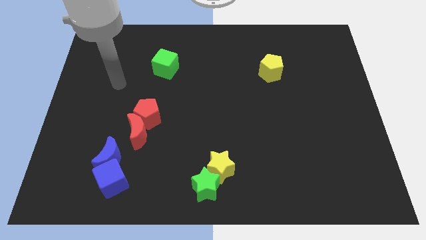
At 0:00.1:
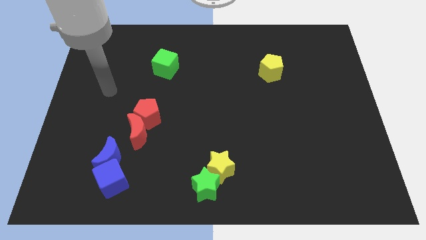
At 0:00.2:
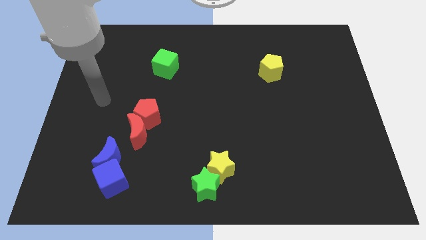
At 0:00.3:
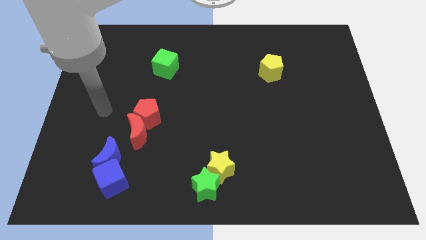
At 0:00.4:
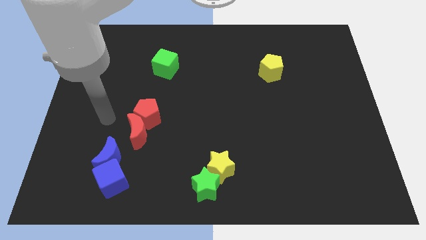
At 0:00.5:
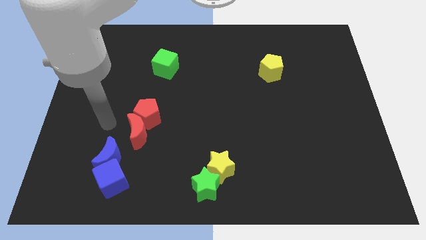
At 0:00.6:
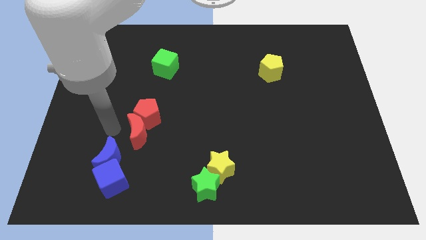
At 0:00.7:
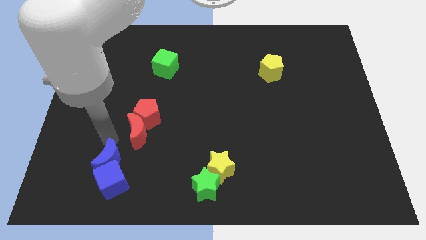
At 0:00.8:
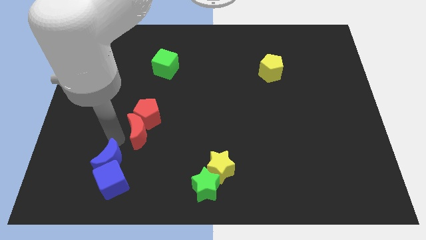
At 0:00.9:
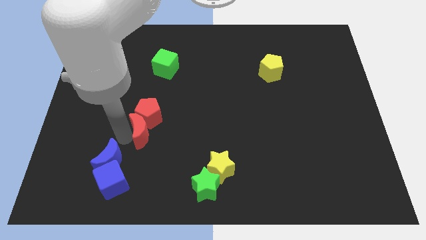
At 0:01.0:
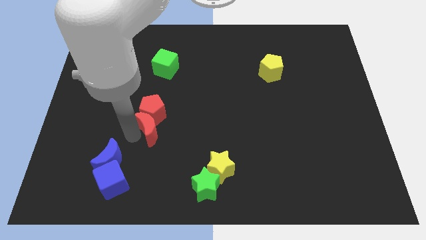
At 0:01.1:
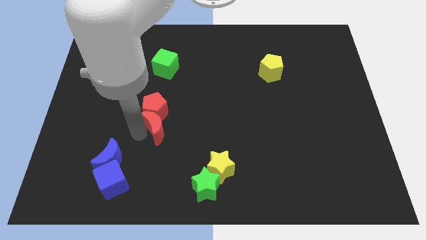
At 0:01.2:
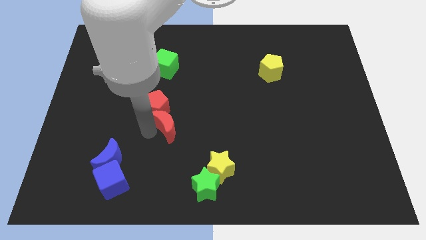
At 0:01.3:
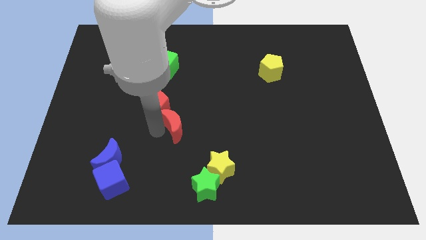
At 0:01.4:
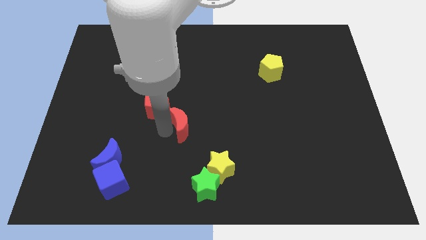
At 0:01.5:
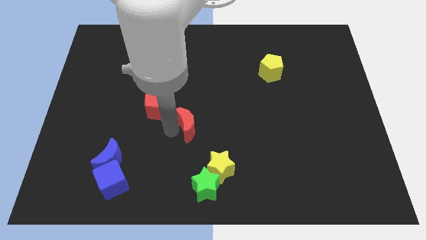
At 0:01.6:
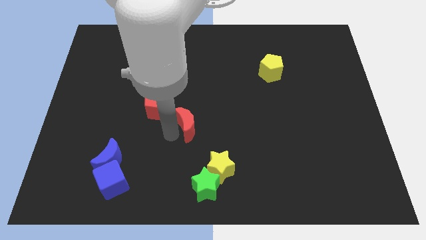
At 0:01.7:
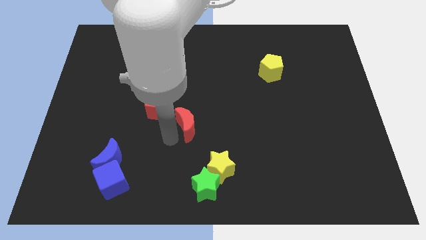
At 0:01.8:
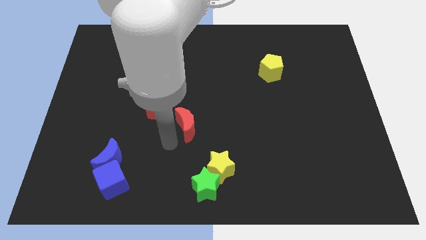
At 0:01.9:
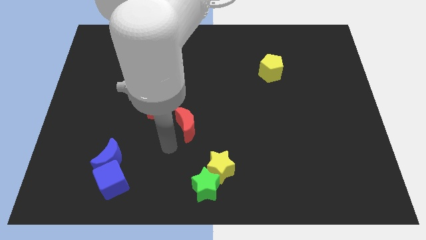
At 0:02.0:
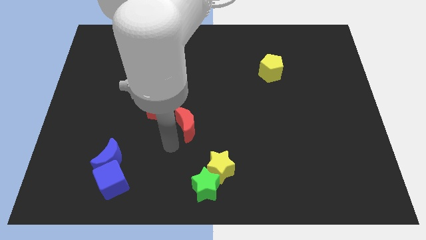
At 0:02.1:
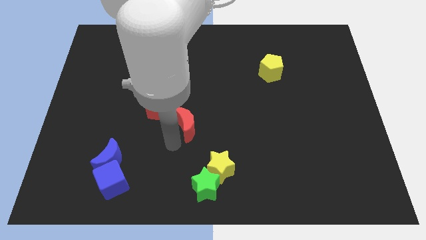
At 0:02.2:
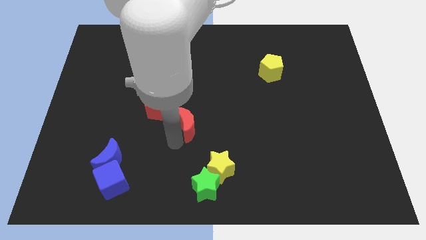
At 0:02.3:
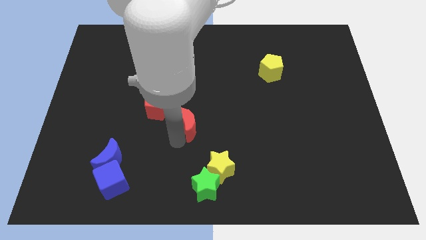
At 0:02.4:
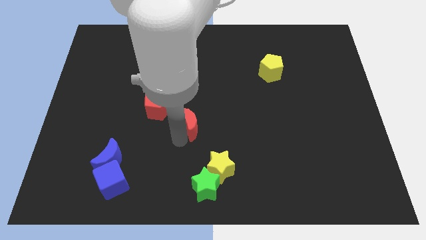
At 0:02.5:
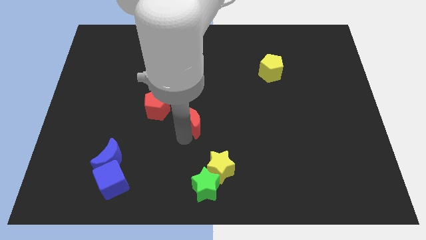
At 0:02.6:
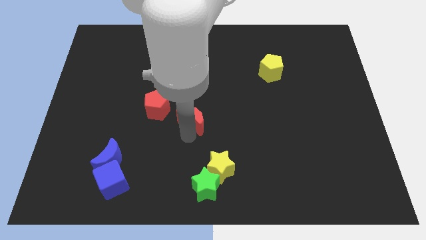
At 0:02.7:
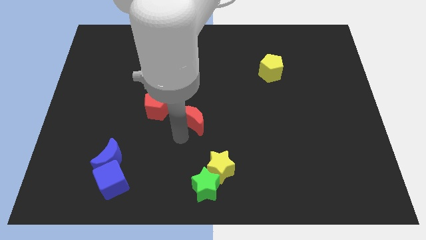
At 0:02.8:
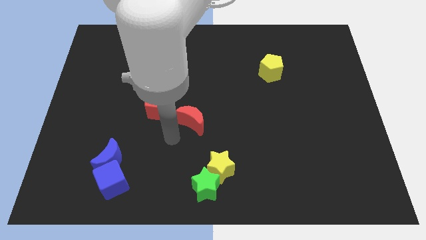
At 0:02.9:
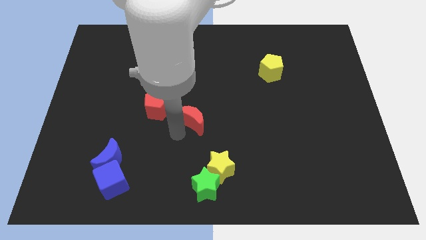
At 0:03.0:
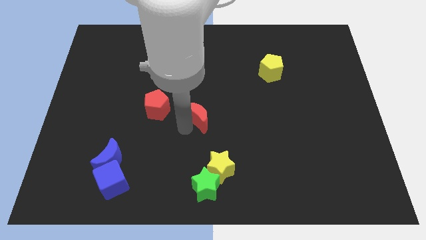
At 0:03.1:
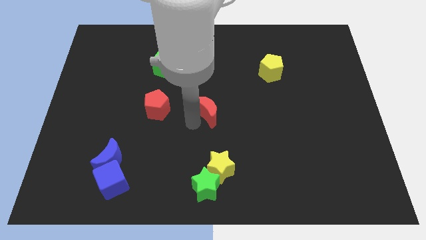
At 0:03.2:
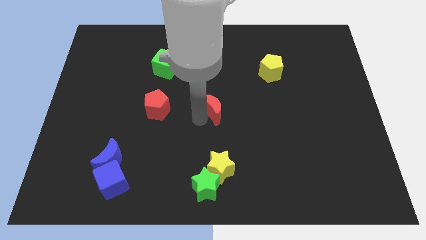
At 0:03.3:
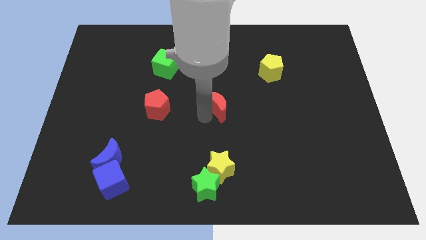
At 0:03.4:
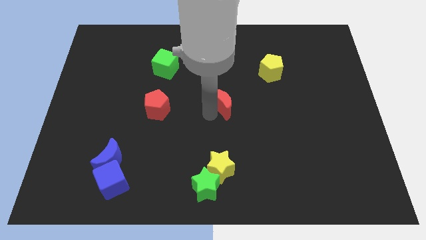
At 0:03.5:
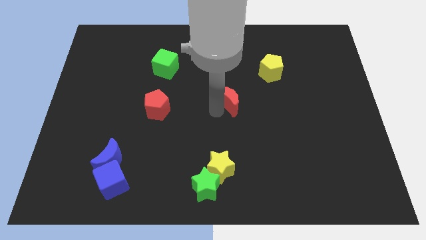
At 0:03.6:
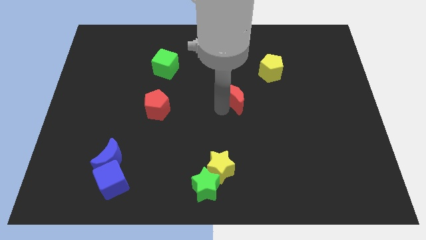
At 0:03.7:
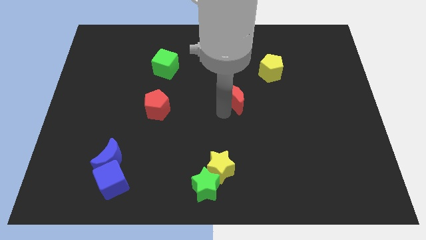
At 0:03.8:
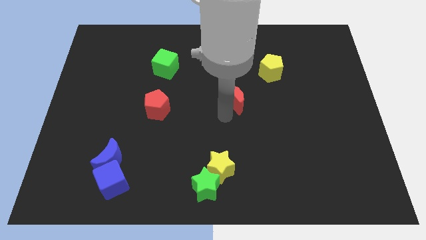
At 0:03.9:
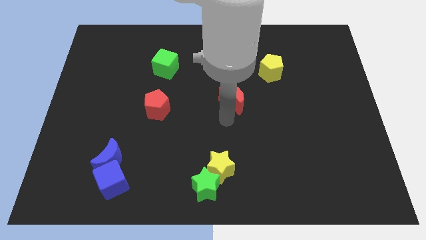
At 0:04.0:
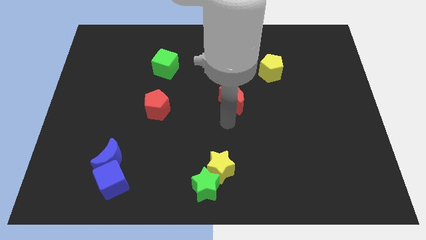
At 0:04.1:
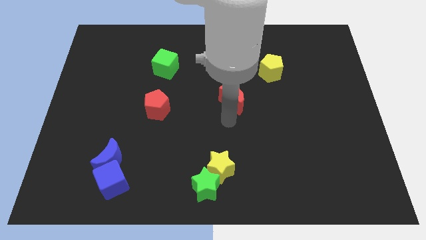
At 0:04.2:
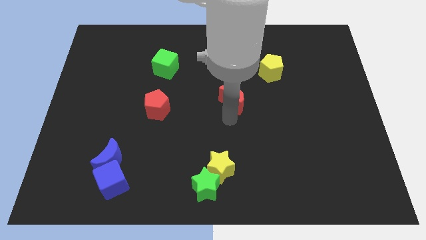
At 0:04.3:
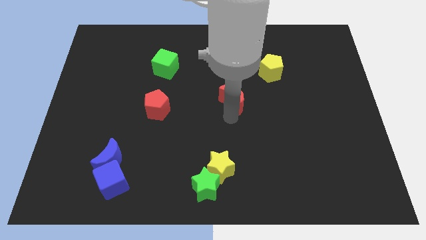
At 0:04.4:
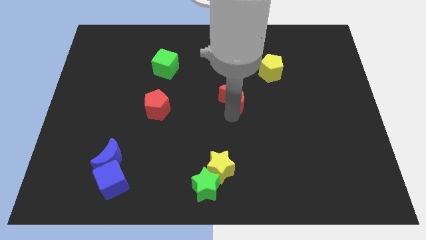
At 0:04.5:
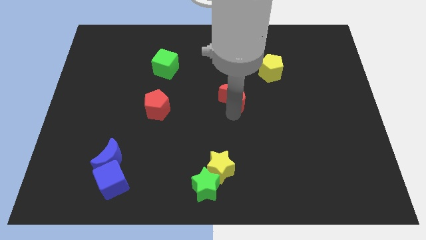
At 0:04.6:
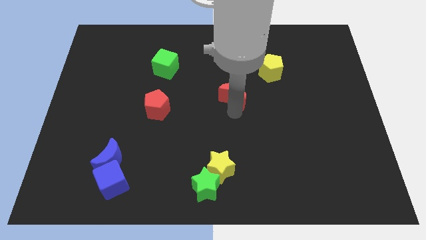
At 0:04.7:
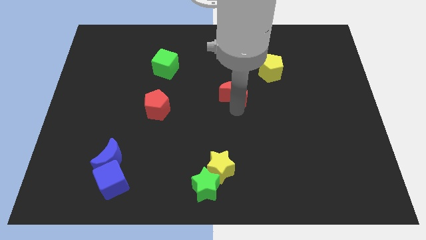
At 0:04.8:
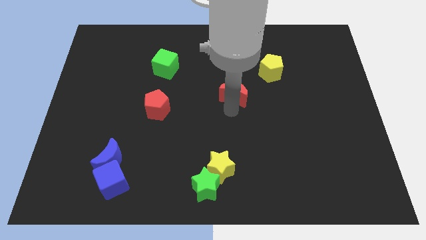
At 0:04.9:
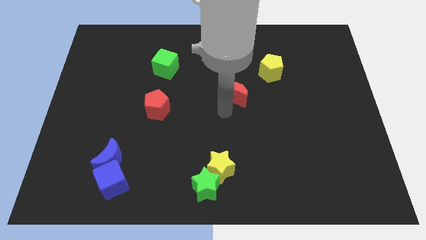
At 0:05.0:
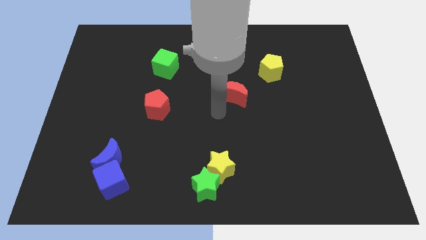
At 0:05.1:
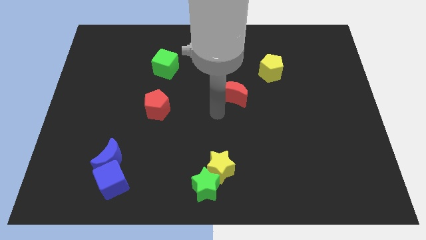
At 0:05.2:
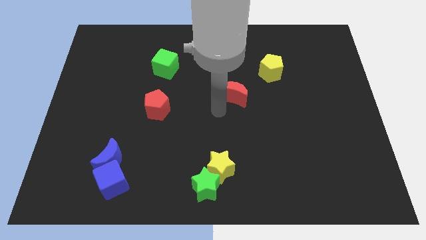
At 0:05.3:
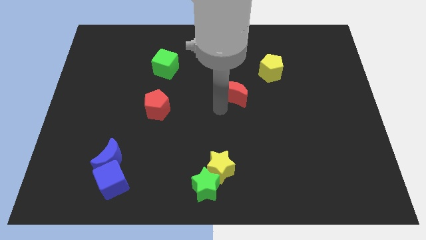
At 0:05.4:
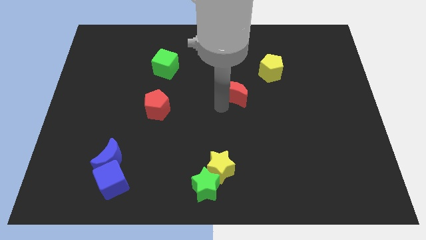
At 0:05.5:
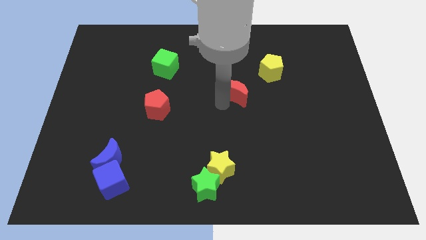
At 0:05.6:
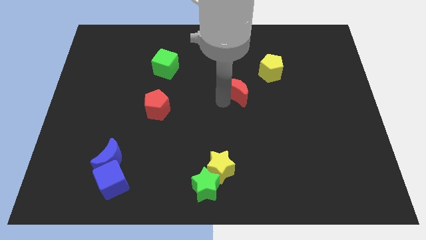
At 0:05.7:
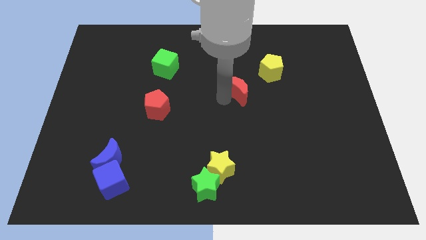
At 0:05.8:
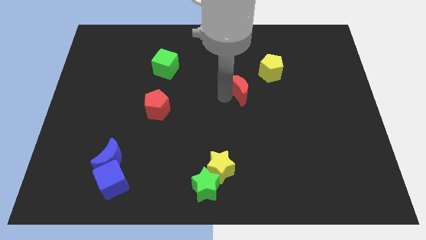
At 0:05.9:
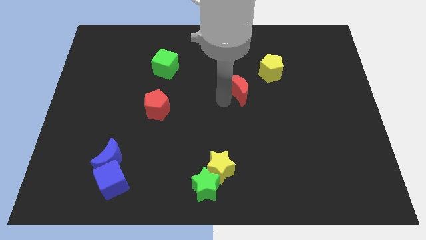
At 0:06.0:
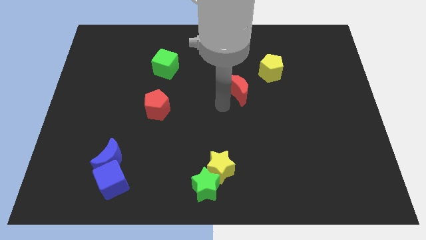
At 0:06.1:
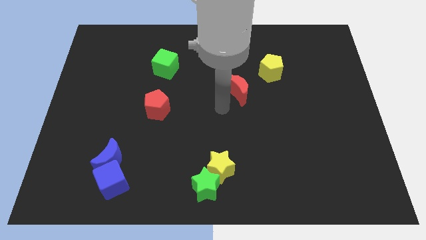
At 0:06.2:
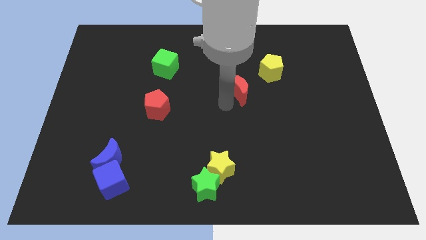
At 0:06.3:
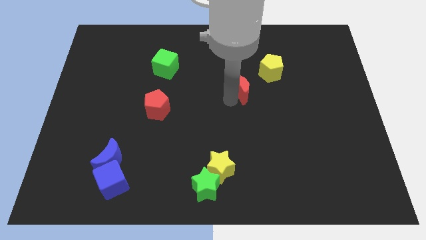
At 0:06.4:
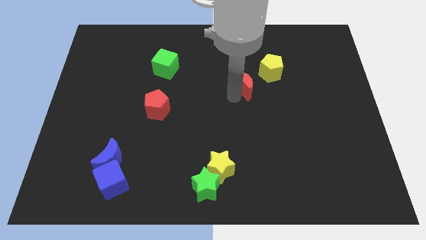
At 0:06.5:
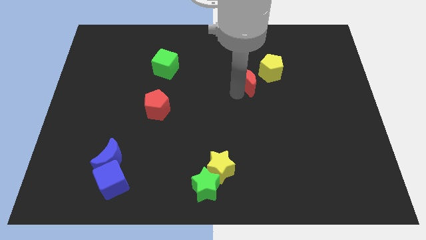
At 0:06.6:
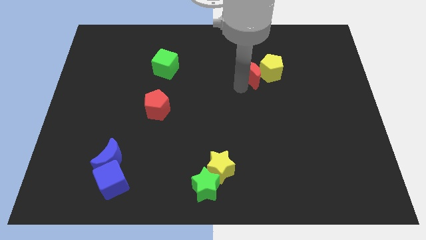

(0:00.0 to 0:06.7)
move the red moon close to the yellow pentagon

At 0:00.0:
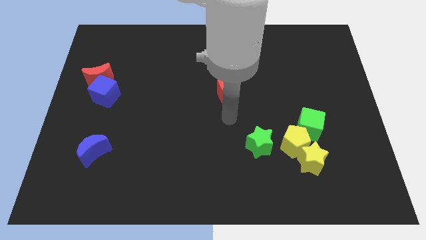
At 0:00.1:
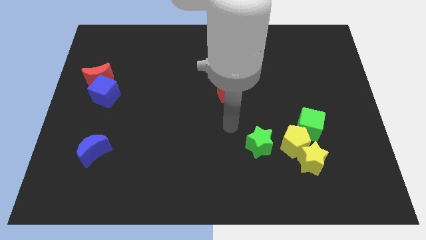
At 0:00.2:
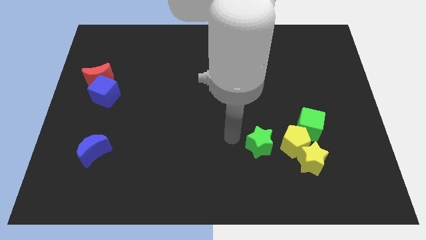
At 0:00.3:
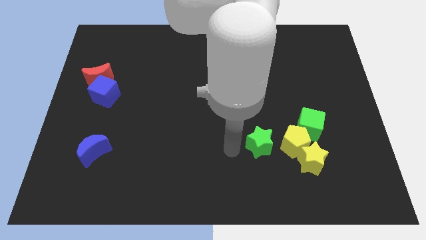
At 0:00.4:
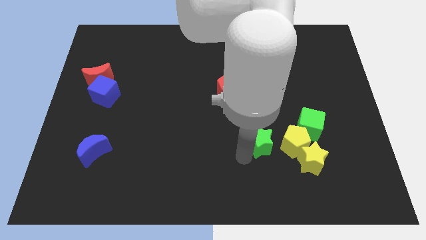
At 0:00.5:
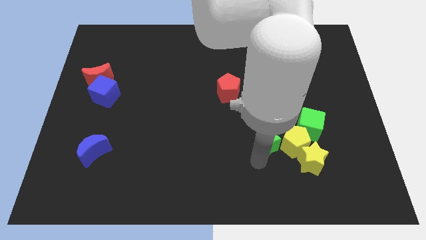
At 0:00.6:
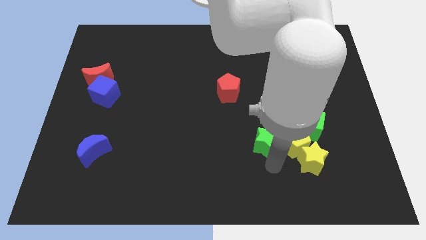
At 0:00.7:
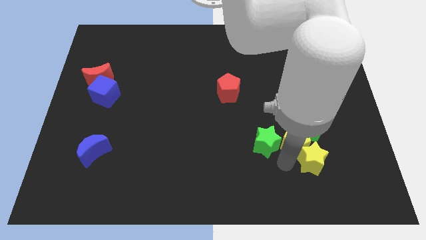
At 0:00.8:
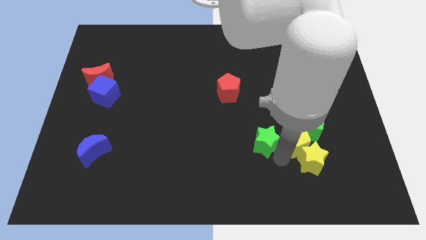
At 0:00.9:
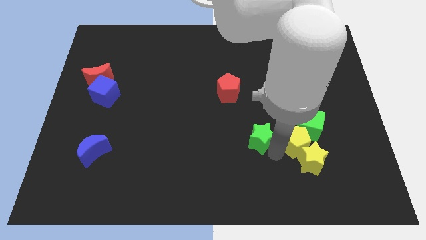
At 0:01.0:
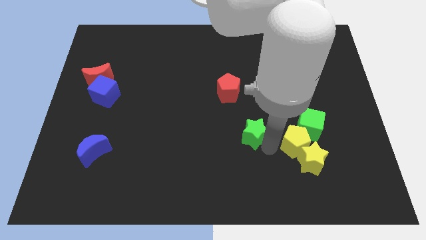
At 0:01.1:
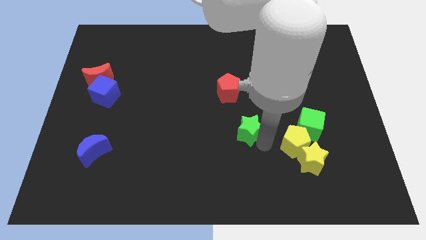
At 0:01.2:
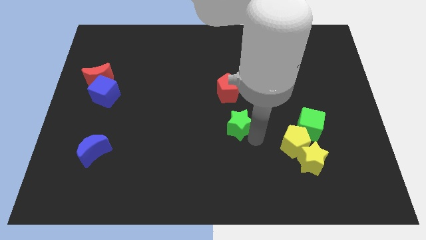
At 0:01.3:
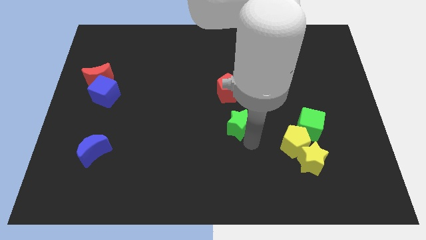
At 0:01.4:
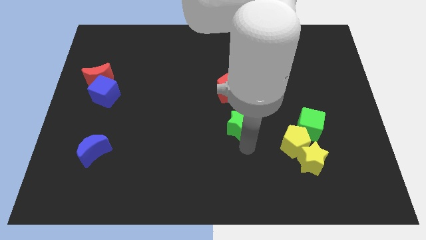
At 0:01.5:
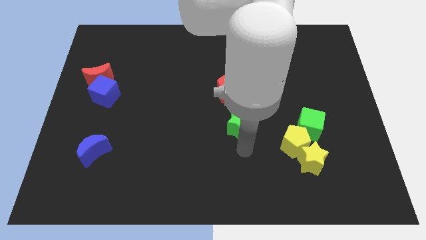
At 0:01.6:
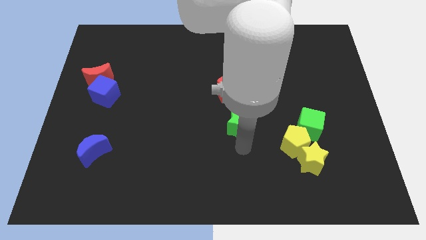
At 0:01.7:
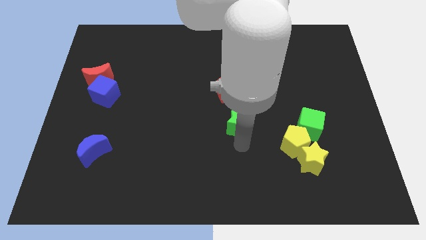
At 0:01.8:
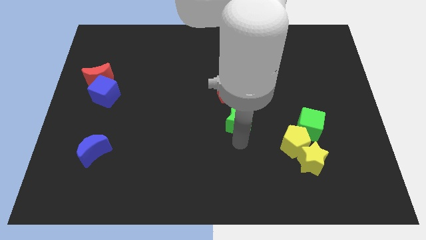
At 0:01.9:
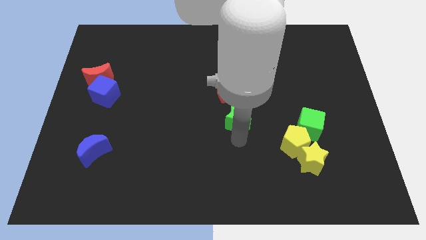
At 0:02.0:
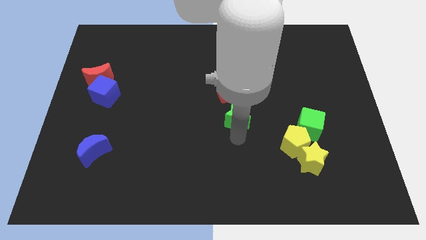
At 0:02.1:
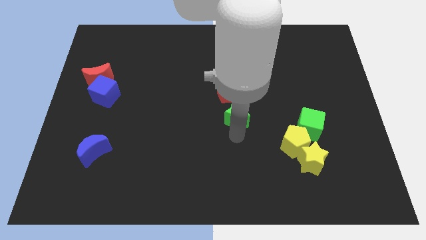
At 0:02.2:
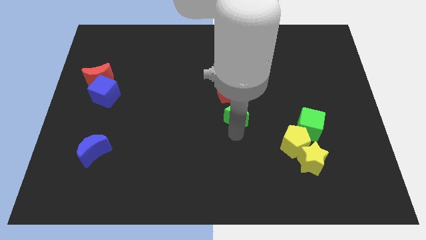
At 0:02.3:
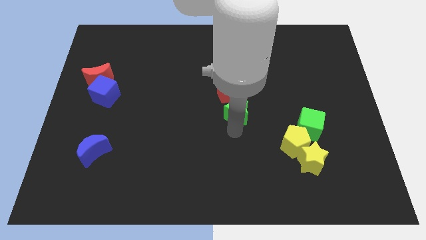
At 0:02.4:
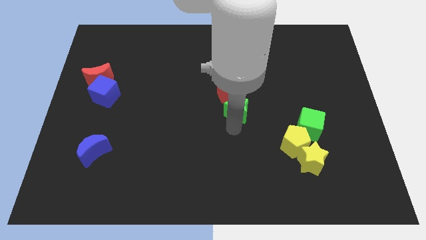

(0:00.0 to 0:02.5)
put the green star next to the red pentagon
